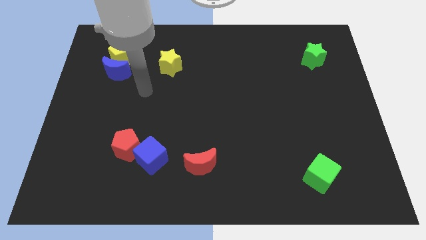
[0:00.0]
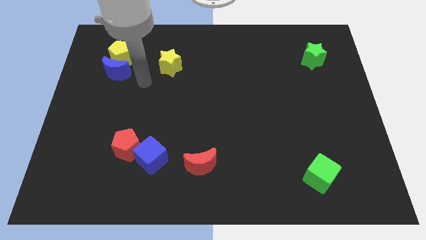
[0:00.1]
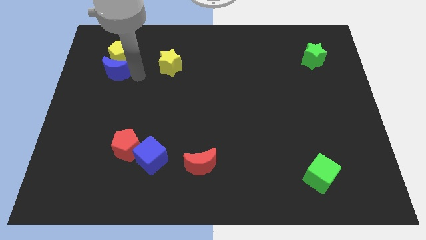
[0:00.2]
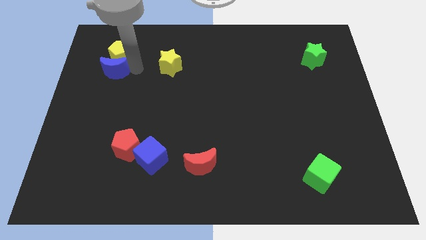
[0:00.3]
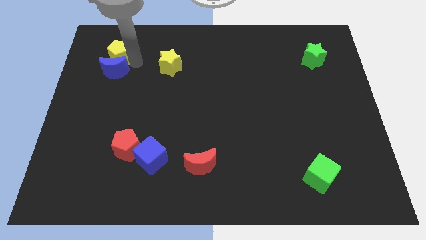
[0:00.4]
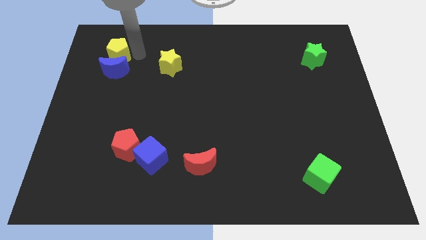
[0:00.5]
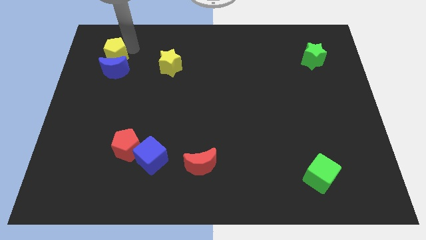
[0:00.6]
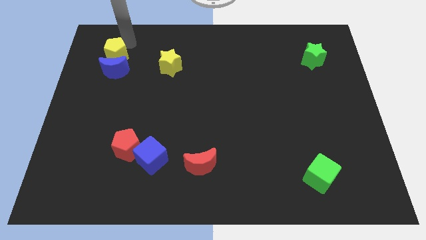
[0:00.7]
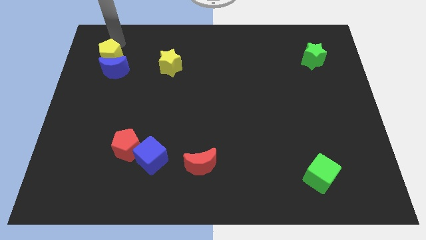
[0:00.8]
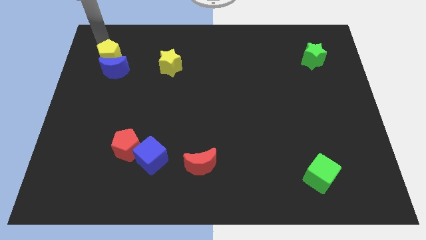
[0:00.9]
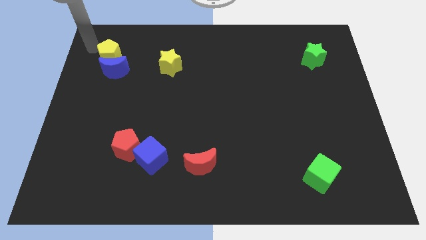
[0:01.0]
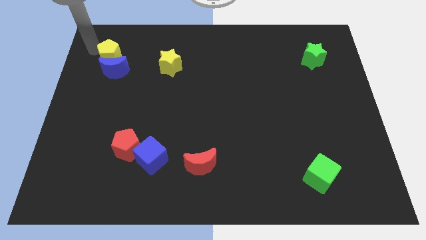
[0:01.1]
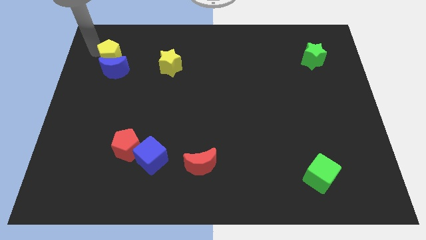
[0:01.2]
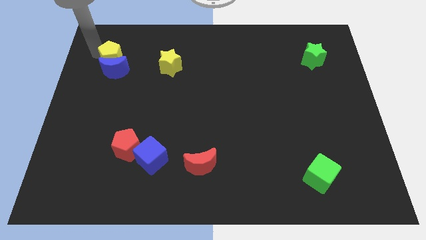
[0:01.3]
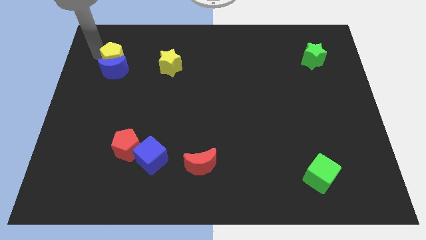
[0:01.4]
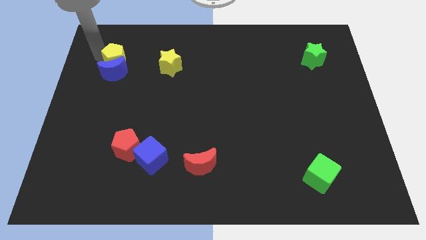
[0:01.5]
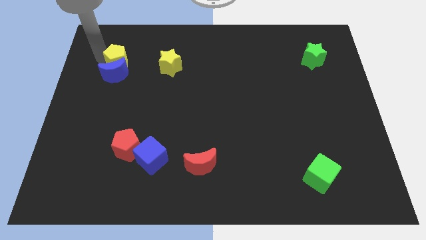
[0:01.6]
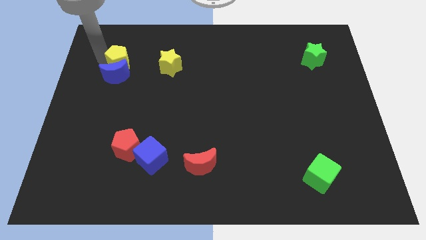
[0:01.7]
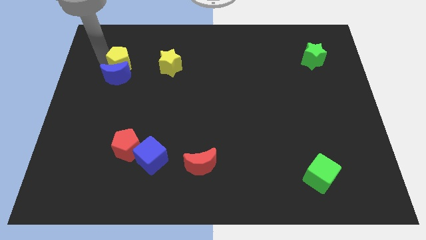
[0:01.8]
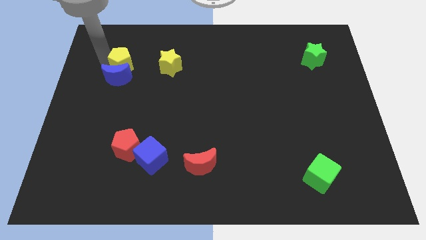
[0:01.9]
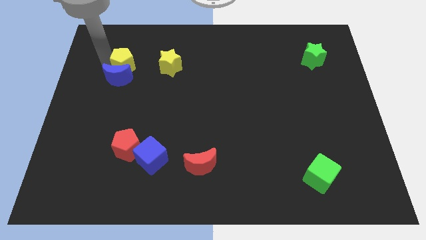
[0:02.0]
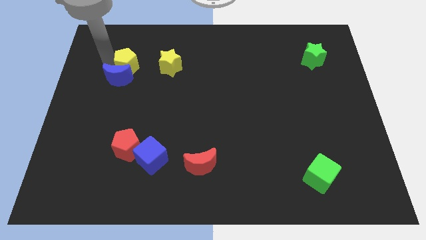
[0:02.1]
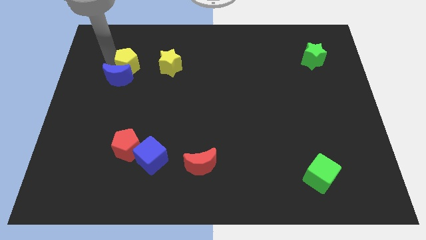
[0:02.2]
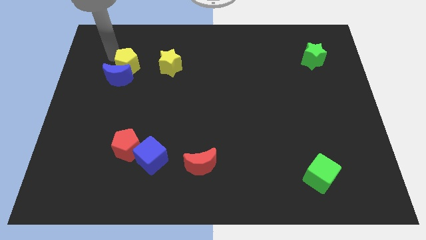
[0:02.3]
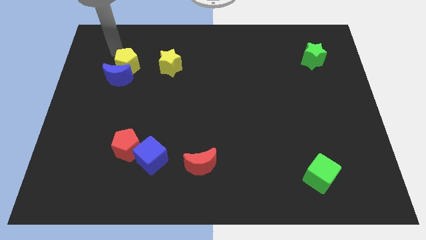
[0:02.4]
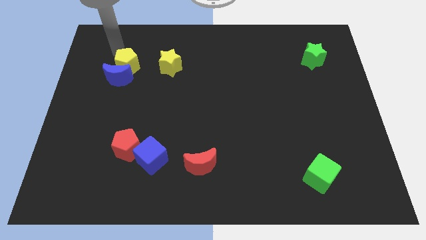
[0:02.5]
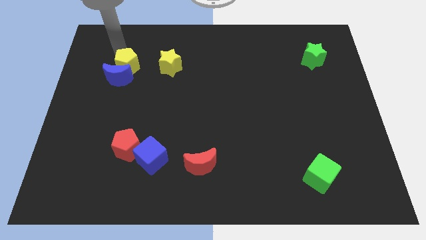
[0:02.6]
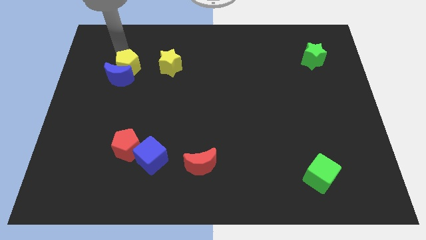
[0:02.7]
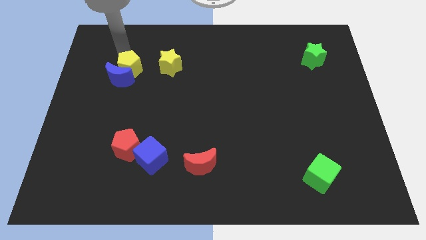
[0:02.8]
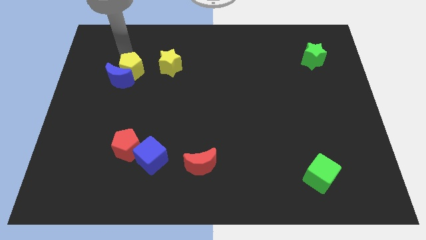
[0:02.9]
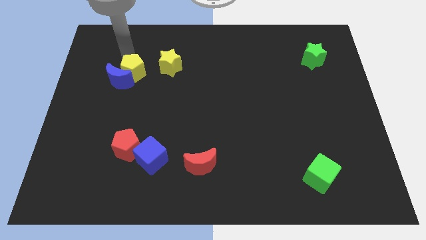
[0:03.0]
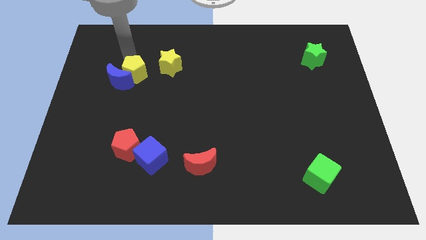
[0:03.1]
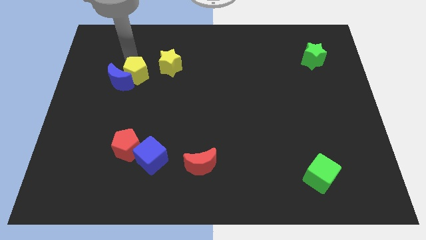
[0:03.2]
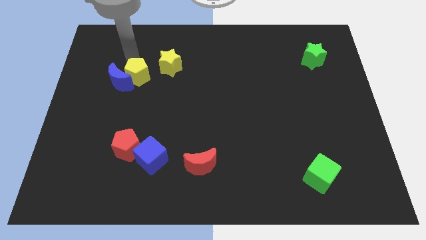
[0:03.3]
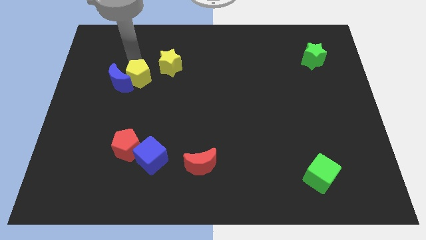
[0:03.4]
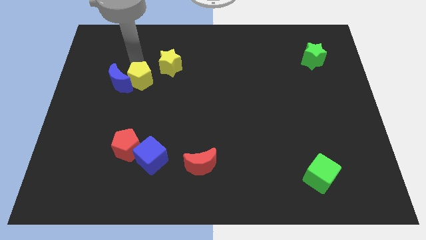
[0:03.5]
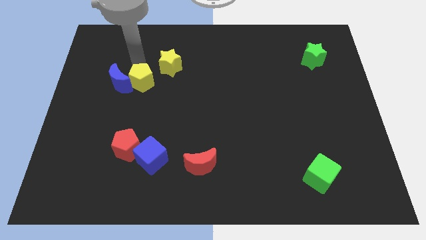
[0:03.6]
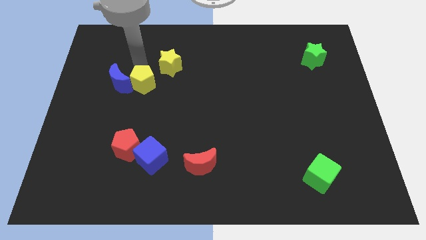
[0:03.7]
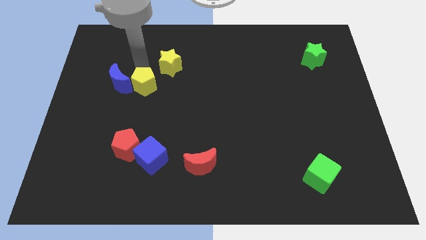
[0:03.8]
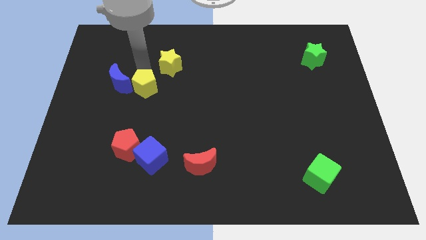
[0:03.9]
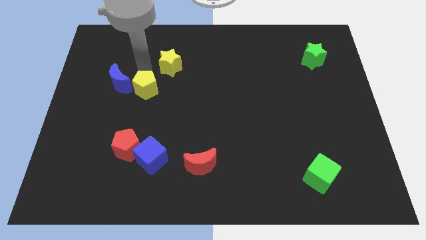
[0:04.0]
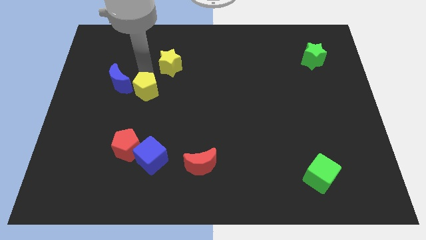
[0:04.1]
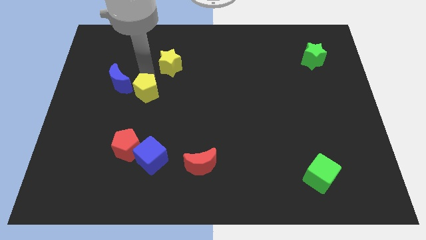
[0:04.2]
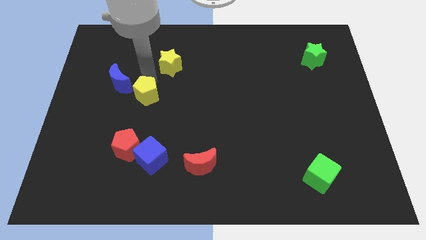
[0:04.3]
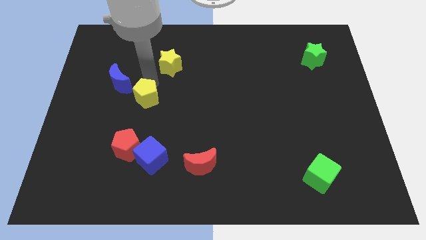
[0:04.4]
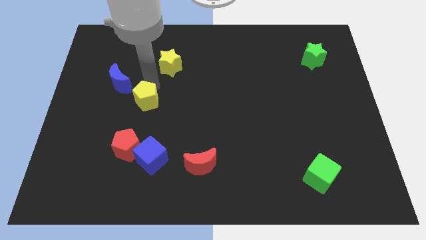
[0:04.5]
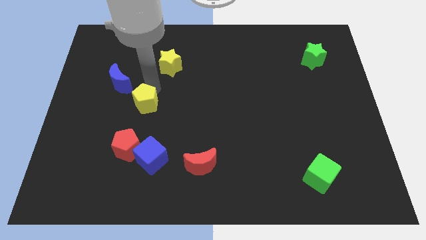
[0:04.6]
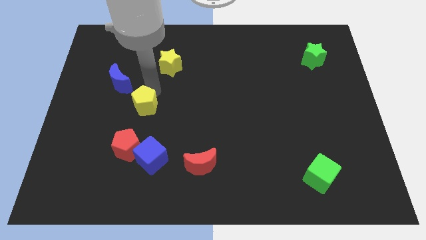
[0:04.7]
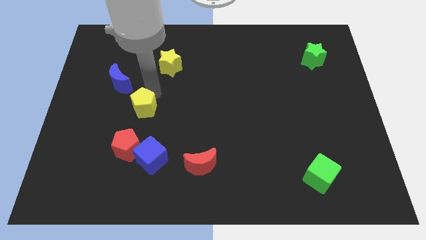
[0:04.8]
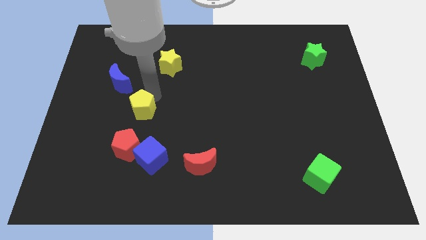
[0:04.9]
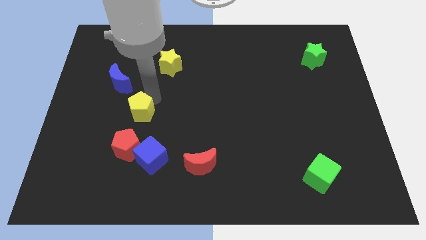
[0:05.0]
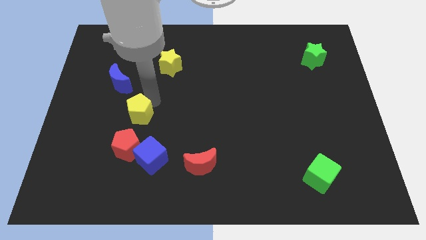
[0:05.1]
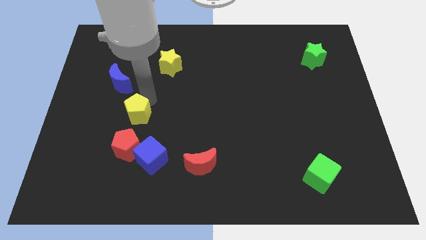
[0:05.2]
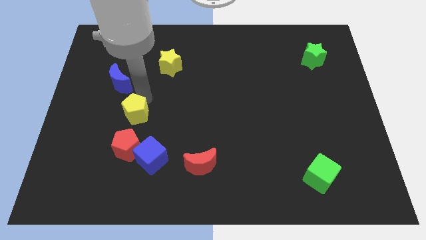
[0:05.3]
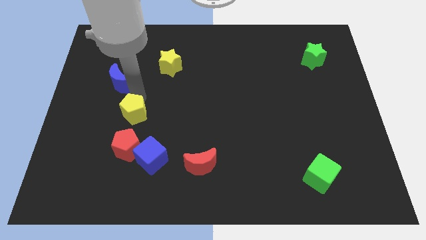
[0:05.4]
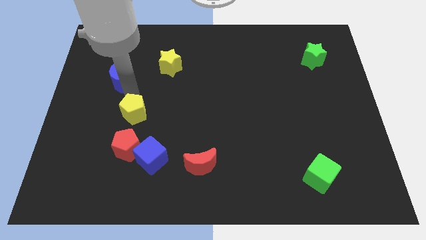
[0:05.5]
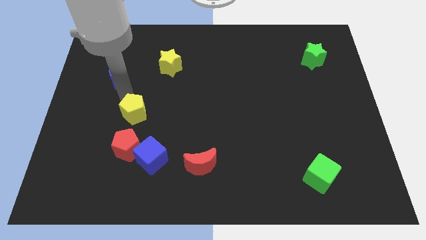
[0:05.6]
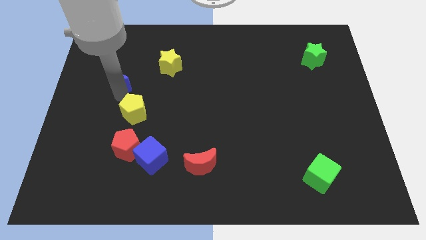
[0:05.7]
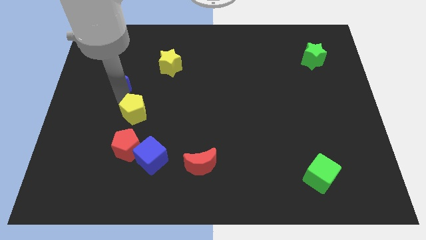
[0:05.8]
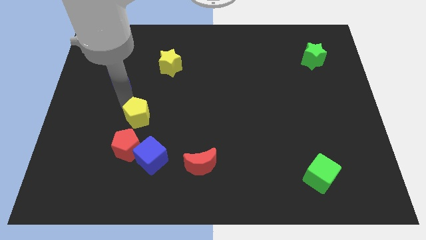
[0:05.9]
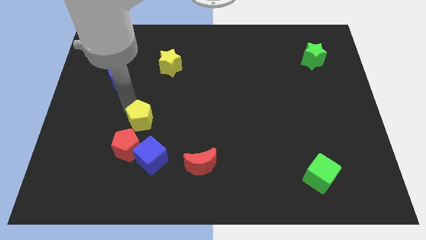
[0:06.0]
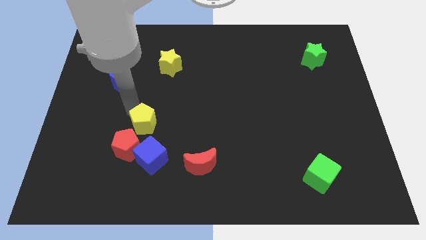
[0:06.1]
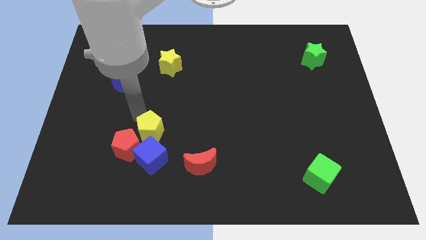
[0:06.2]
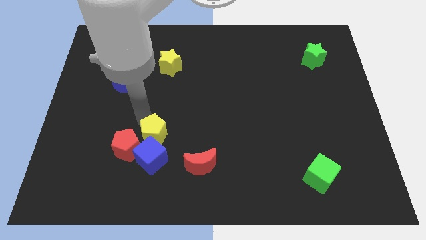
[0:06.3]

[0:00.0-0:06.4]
push the yellow pentagon close to the blue cube
